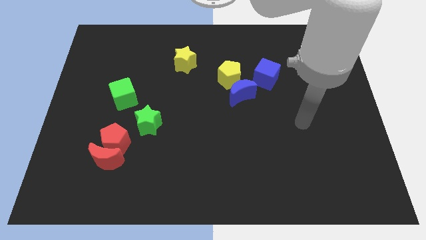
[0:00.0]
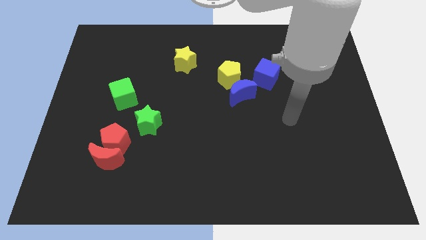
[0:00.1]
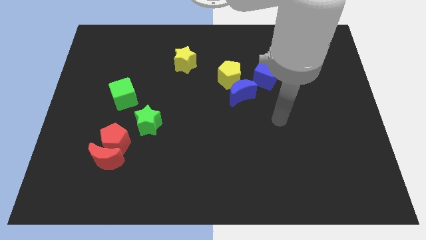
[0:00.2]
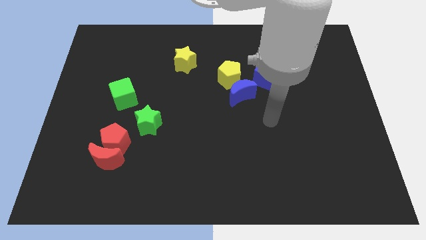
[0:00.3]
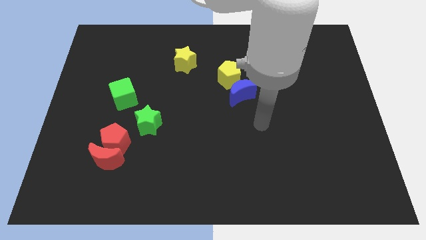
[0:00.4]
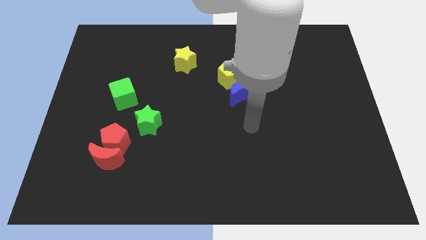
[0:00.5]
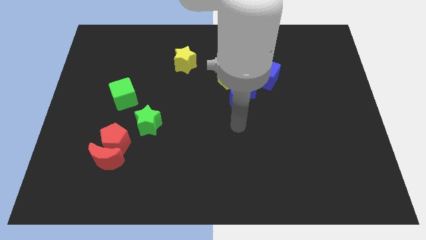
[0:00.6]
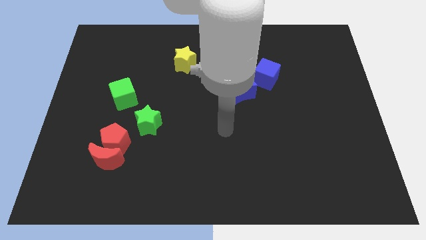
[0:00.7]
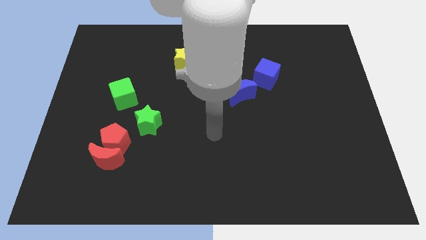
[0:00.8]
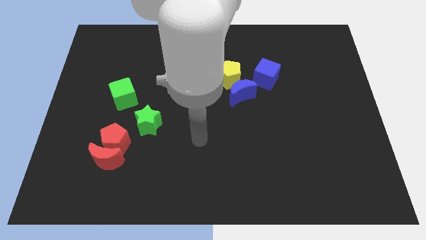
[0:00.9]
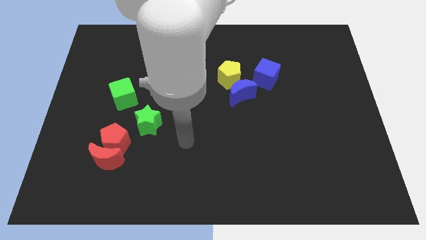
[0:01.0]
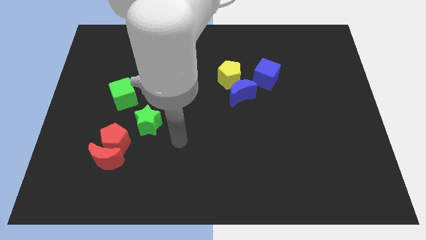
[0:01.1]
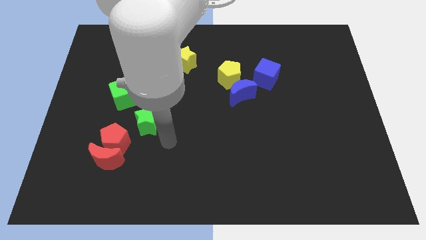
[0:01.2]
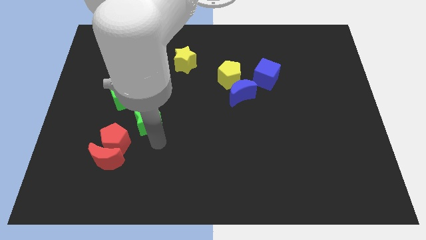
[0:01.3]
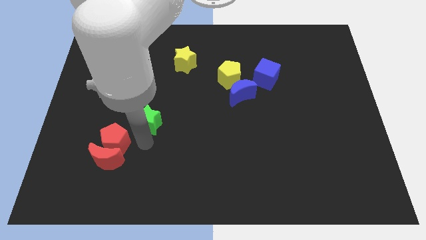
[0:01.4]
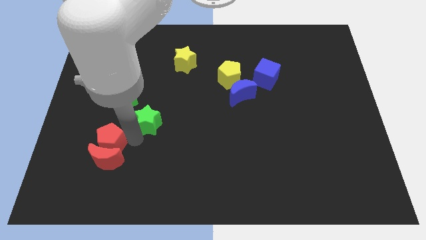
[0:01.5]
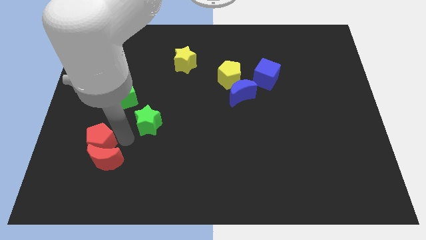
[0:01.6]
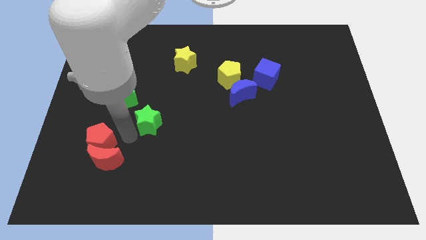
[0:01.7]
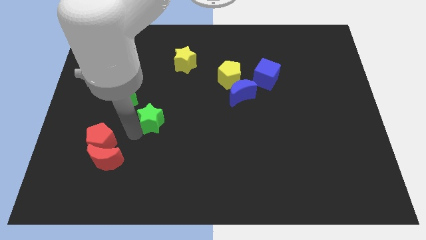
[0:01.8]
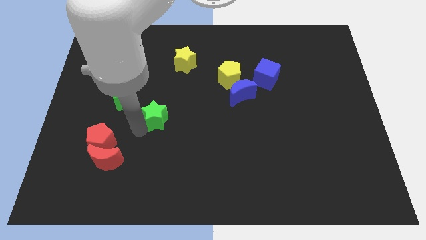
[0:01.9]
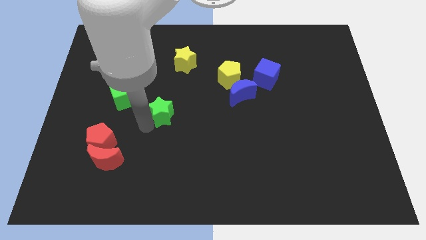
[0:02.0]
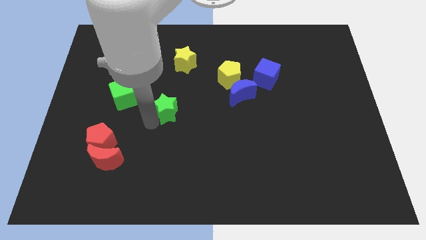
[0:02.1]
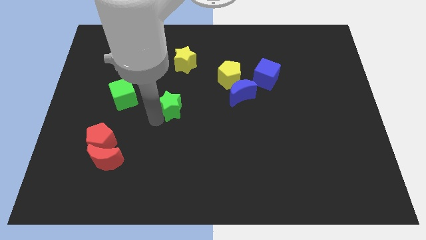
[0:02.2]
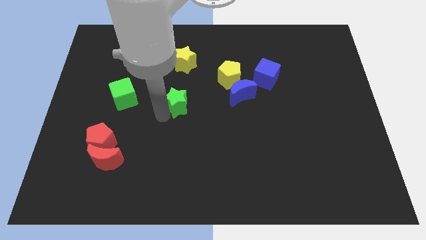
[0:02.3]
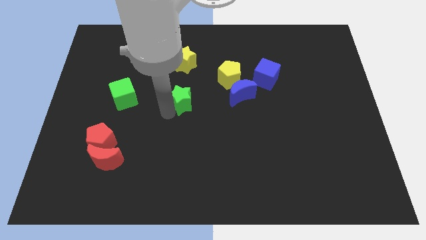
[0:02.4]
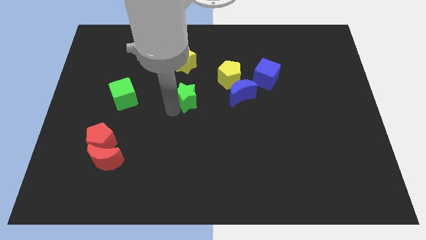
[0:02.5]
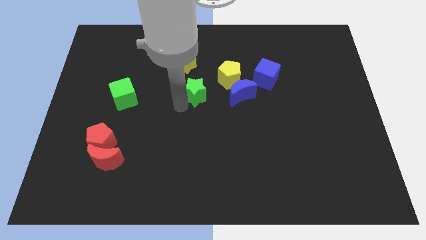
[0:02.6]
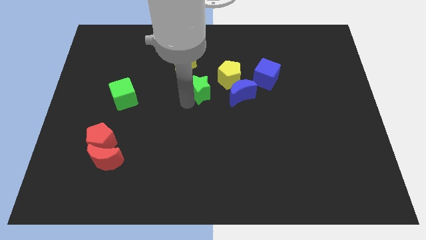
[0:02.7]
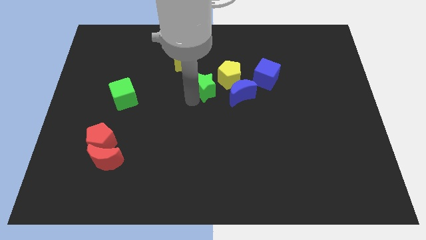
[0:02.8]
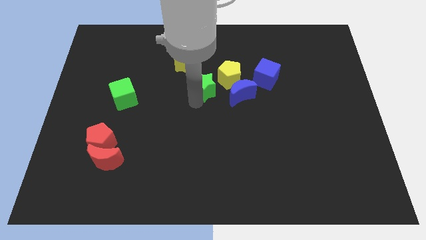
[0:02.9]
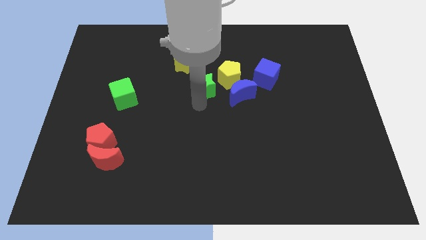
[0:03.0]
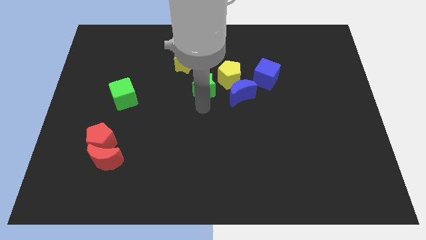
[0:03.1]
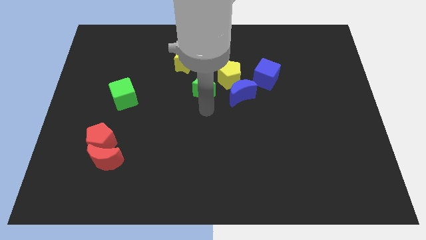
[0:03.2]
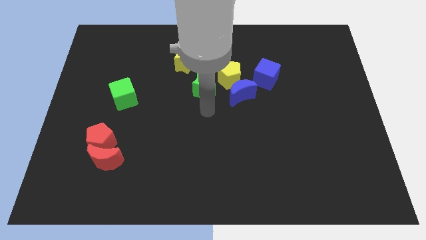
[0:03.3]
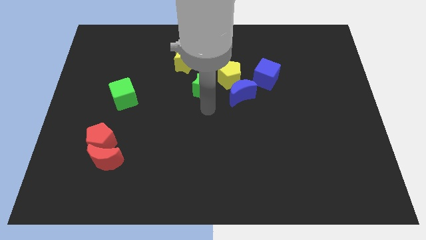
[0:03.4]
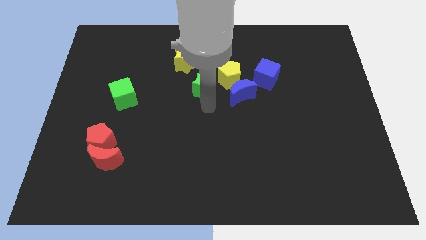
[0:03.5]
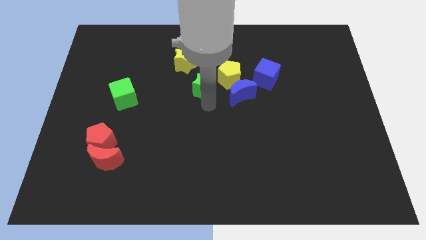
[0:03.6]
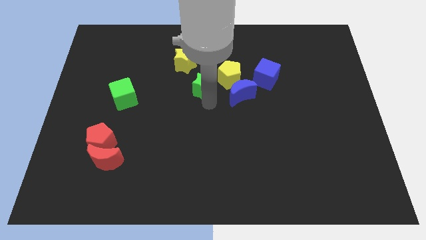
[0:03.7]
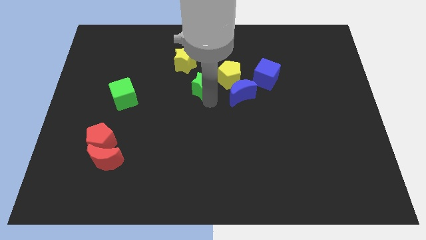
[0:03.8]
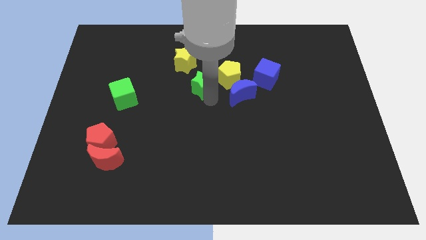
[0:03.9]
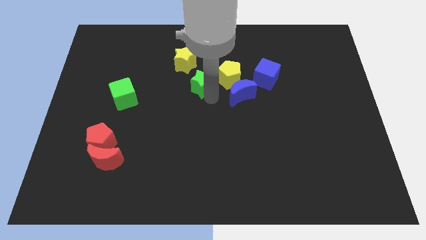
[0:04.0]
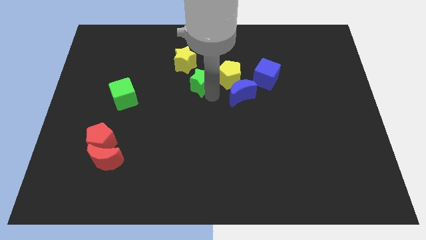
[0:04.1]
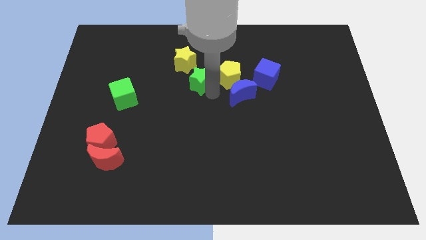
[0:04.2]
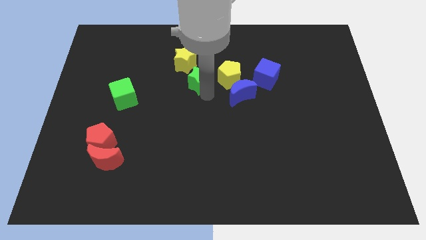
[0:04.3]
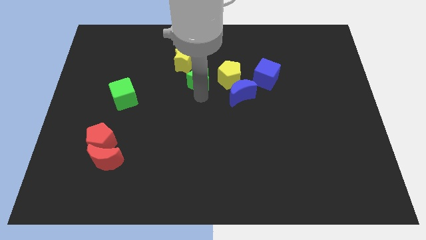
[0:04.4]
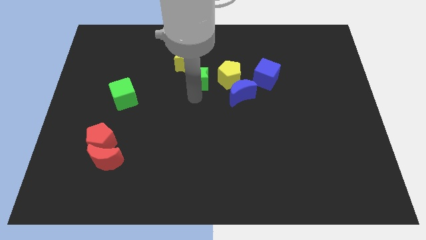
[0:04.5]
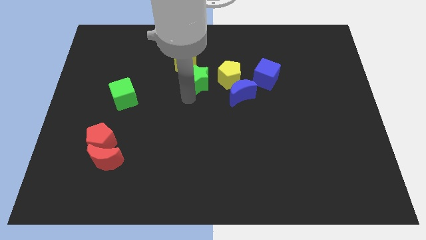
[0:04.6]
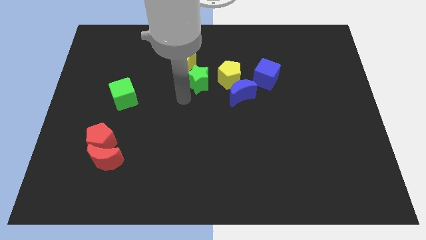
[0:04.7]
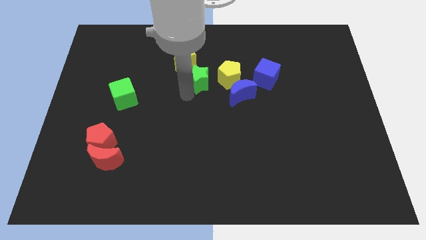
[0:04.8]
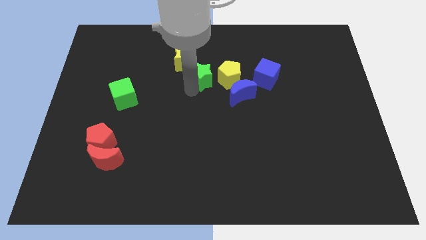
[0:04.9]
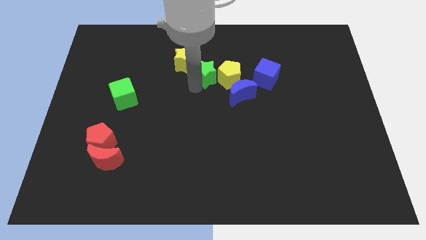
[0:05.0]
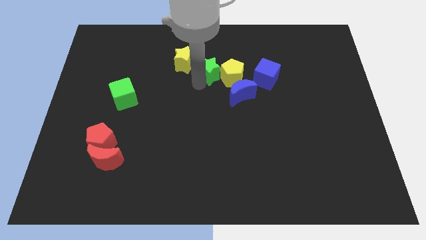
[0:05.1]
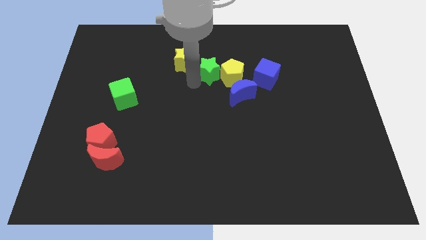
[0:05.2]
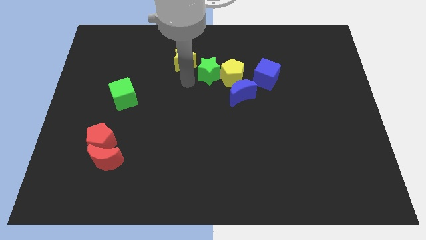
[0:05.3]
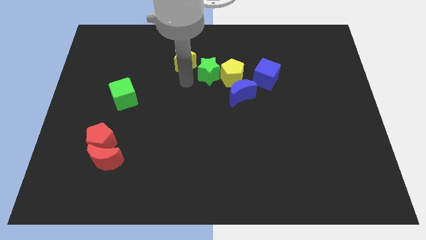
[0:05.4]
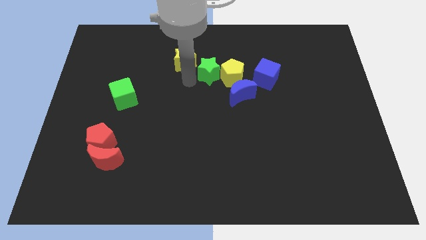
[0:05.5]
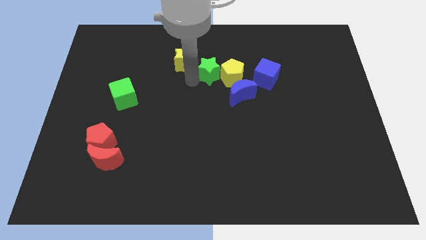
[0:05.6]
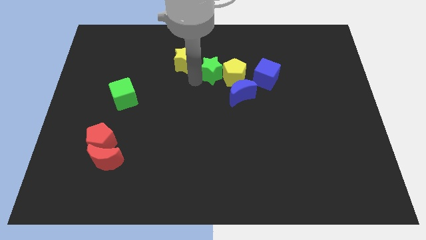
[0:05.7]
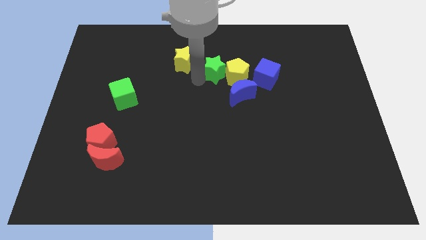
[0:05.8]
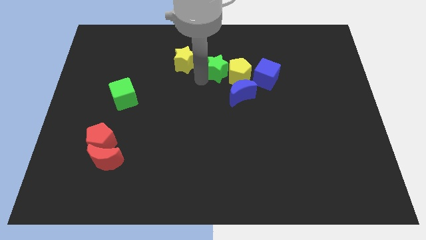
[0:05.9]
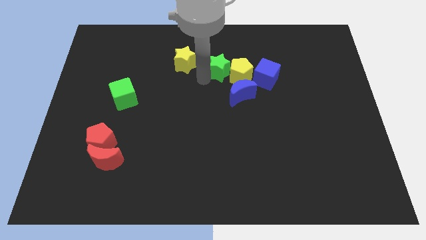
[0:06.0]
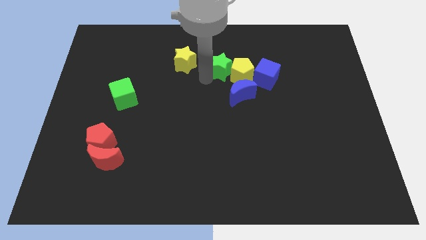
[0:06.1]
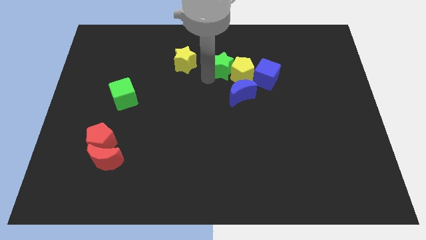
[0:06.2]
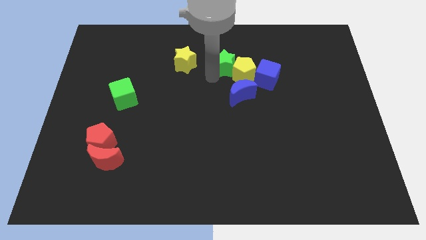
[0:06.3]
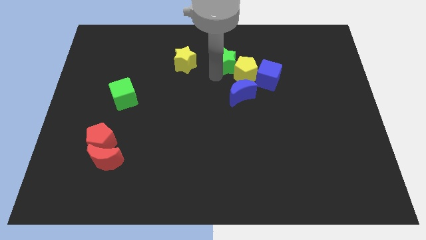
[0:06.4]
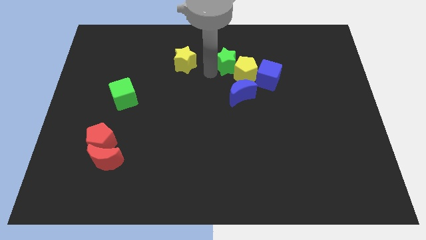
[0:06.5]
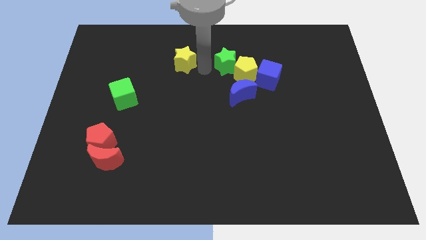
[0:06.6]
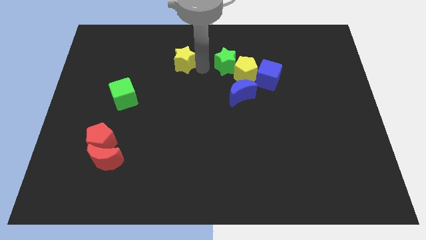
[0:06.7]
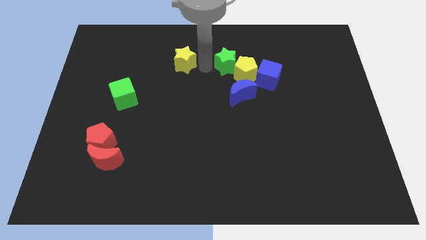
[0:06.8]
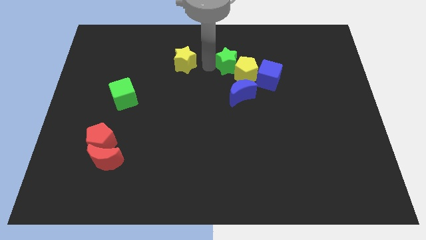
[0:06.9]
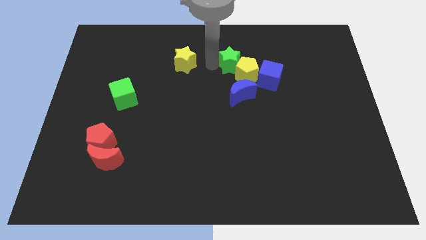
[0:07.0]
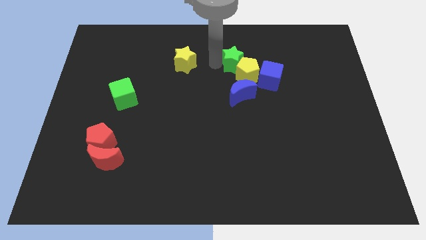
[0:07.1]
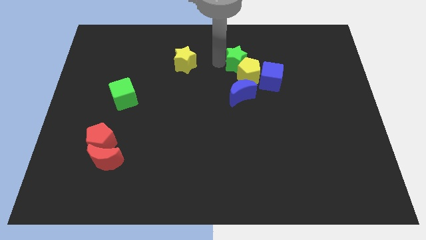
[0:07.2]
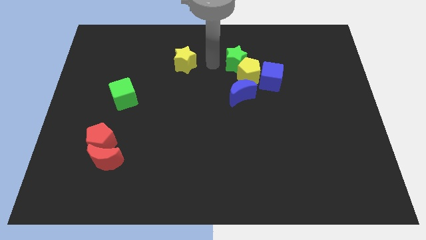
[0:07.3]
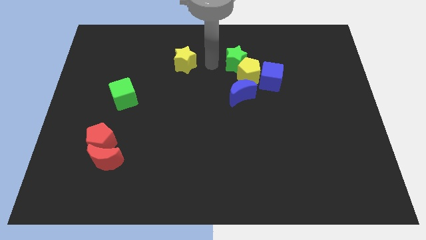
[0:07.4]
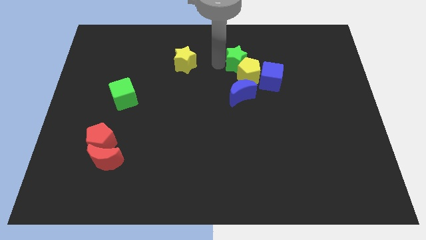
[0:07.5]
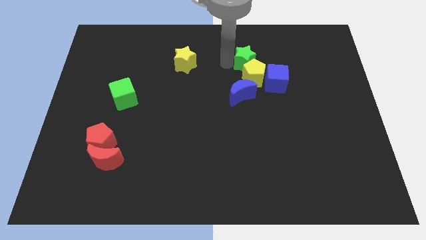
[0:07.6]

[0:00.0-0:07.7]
put the green star diagonally up and to the right of the yellow pentagon
